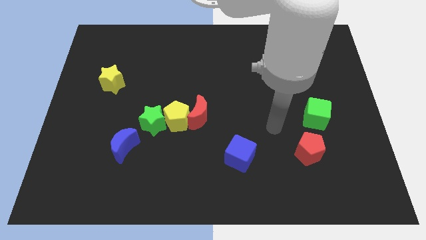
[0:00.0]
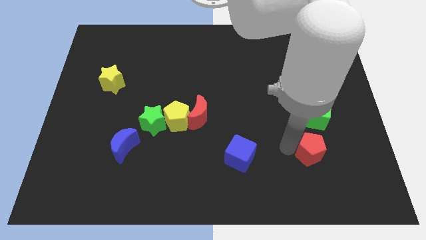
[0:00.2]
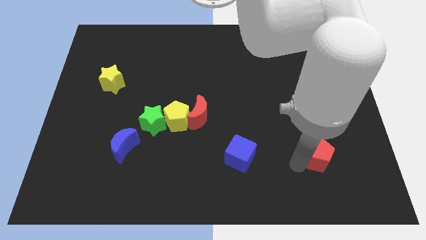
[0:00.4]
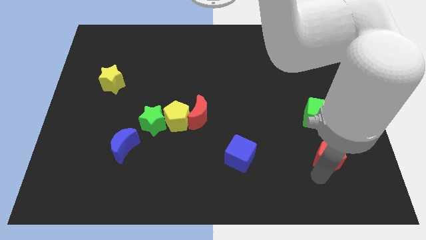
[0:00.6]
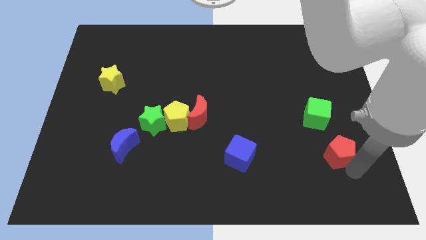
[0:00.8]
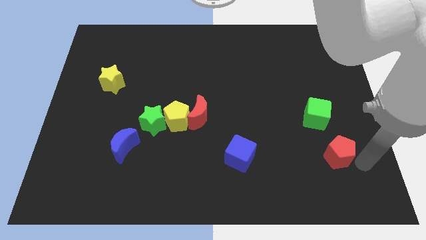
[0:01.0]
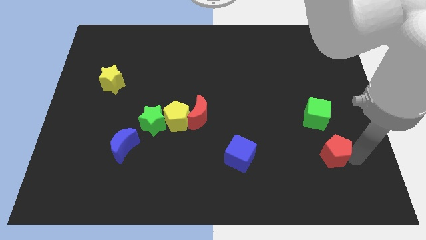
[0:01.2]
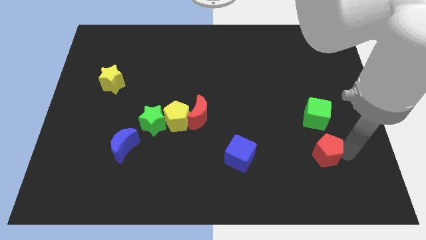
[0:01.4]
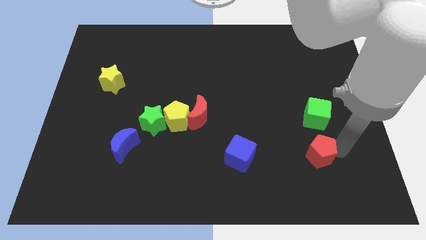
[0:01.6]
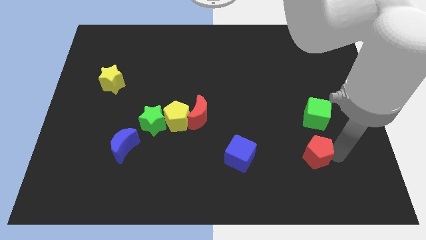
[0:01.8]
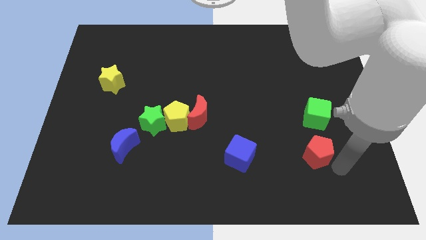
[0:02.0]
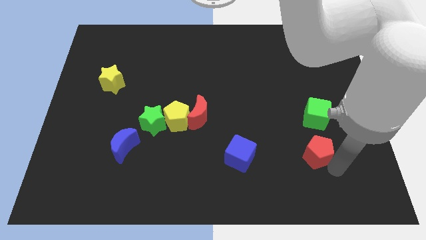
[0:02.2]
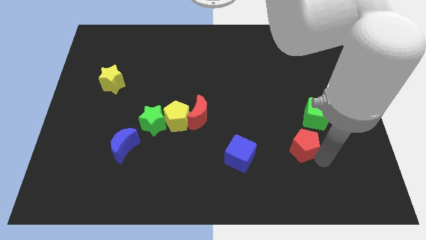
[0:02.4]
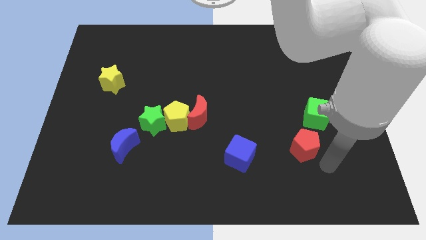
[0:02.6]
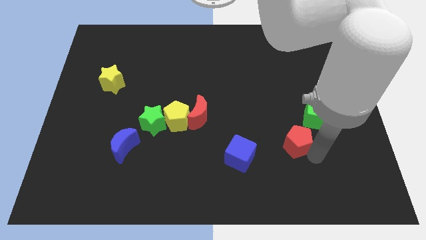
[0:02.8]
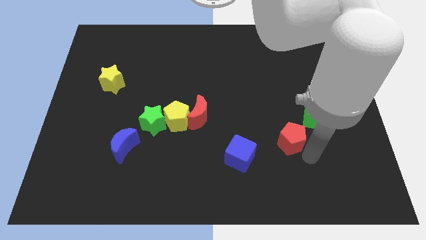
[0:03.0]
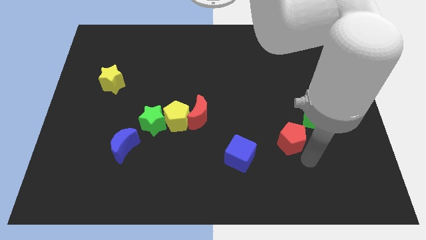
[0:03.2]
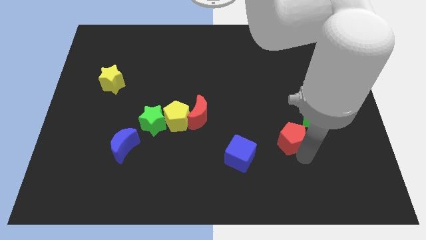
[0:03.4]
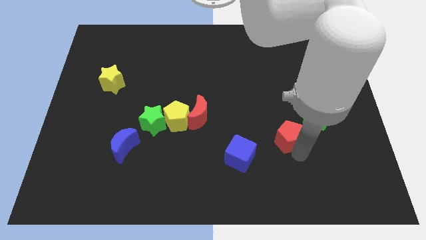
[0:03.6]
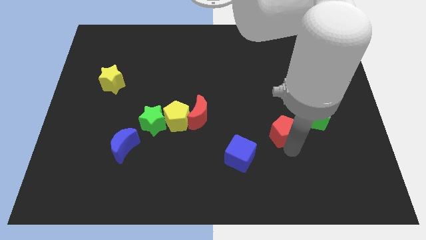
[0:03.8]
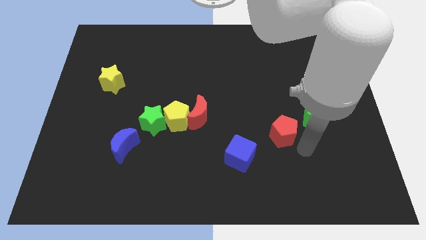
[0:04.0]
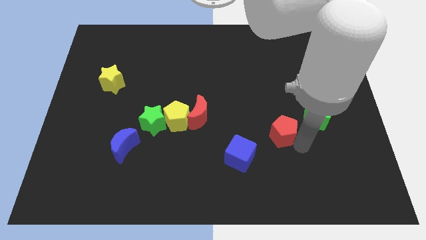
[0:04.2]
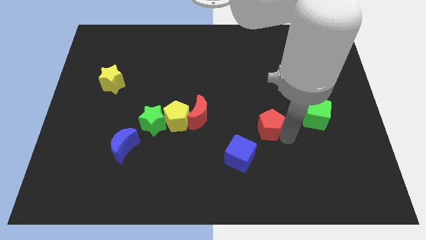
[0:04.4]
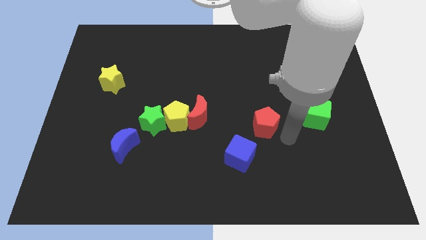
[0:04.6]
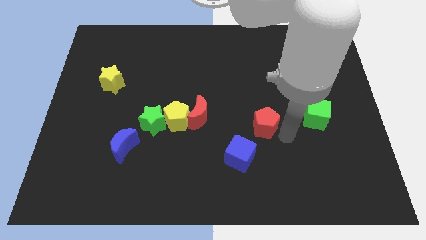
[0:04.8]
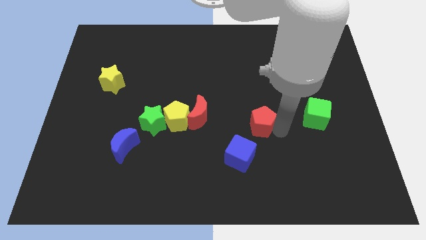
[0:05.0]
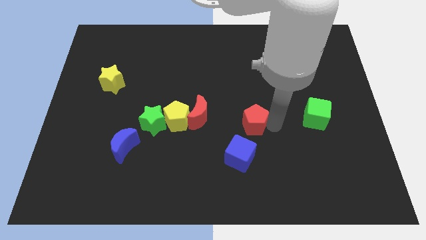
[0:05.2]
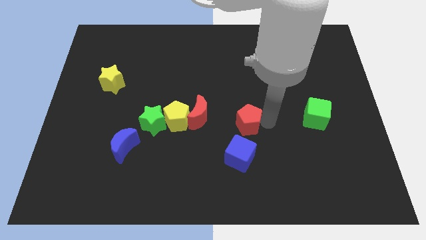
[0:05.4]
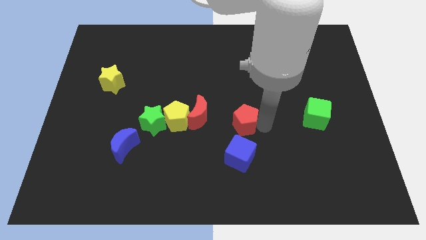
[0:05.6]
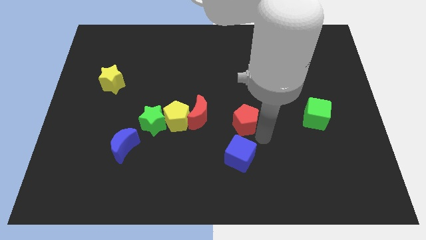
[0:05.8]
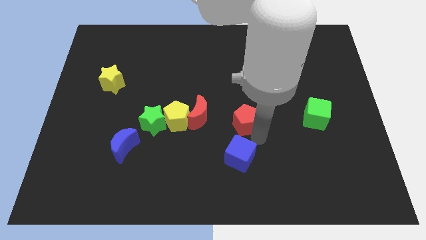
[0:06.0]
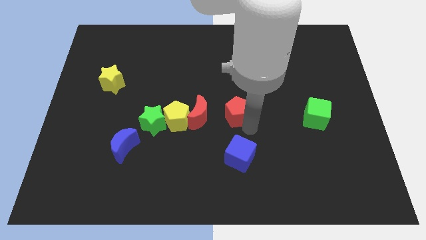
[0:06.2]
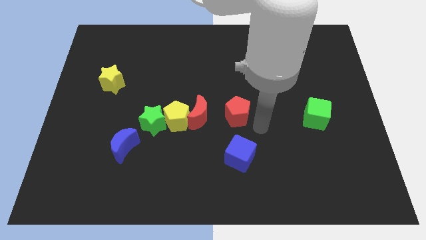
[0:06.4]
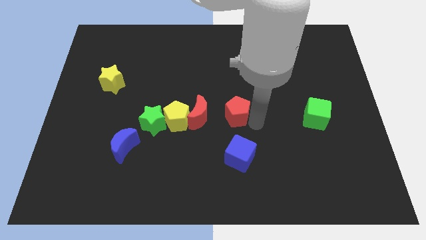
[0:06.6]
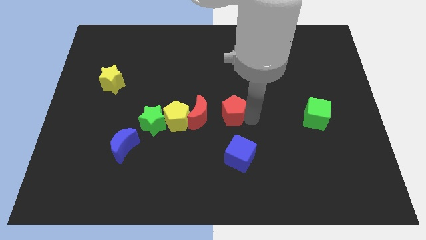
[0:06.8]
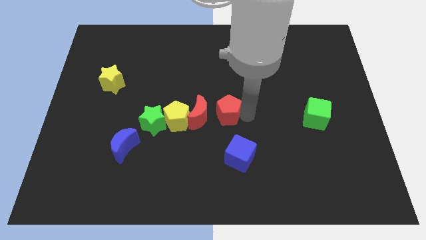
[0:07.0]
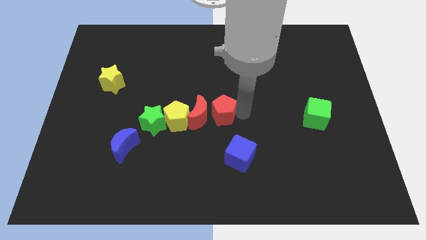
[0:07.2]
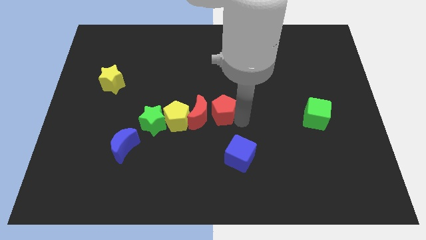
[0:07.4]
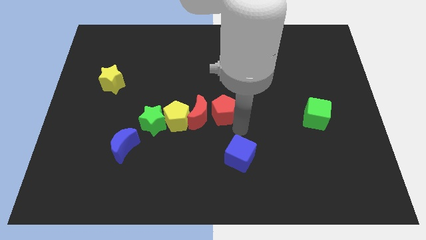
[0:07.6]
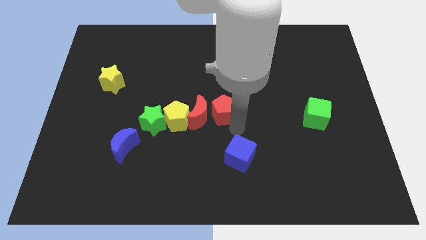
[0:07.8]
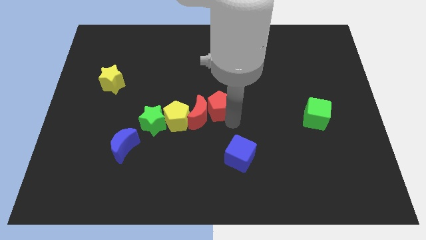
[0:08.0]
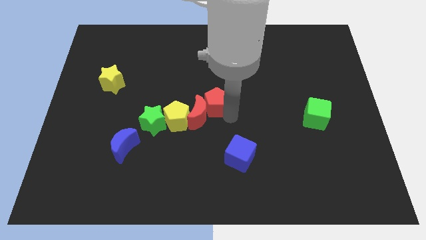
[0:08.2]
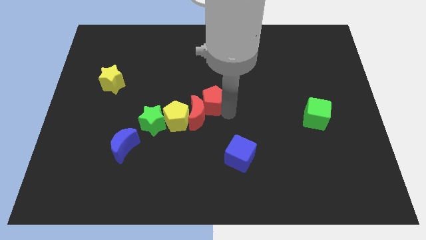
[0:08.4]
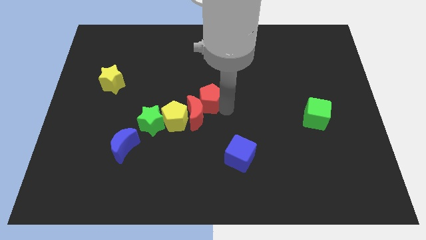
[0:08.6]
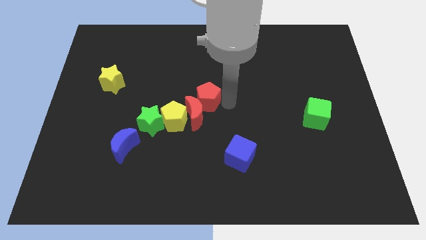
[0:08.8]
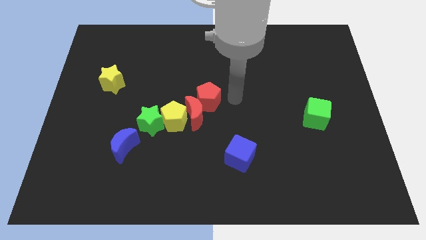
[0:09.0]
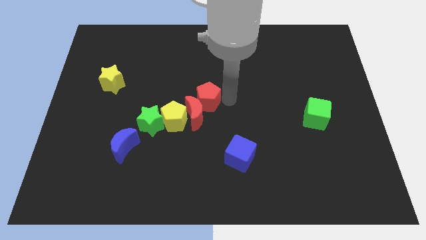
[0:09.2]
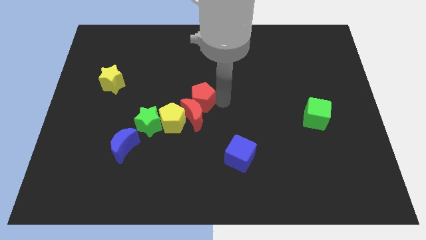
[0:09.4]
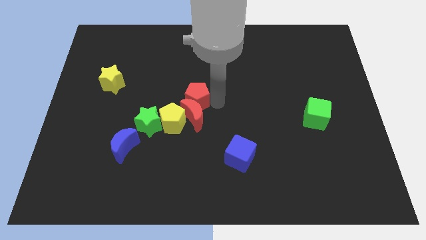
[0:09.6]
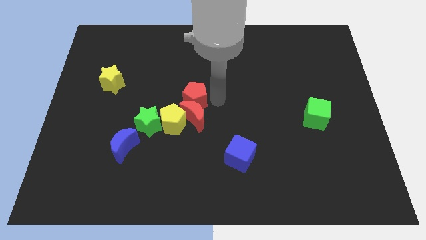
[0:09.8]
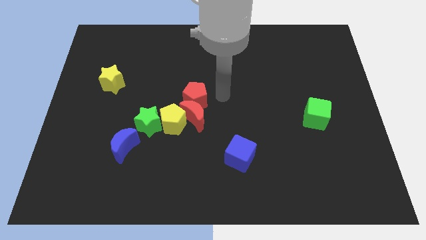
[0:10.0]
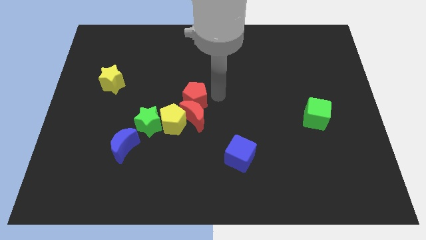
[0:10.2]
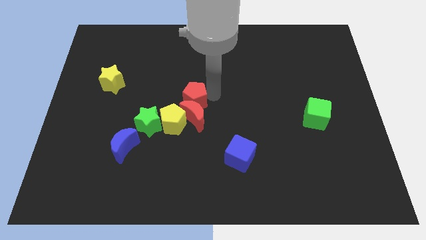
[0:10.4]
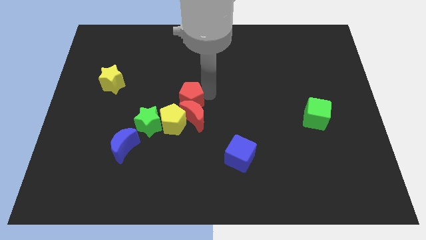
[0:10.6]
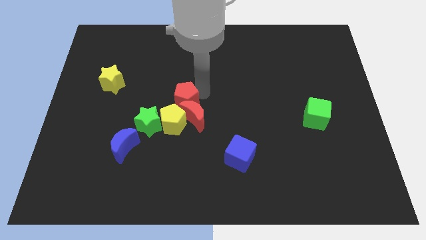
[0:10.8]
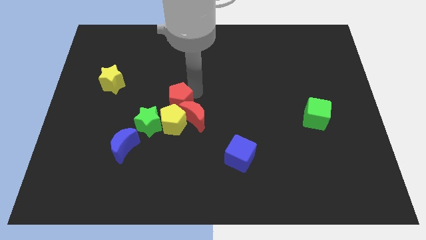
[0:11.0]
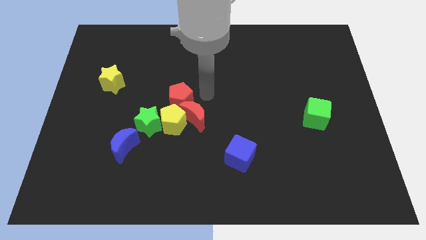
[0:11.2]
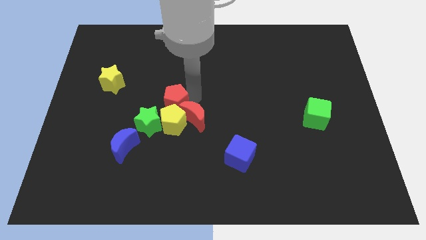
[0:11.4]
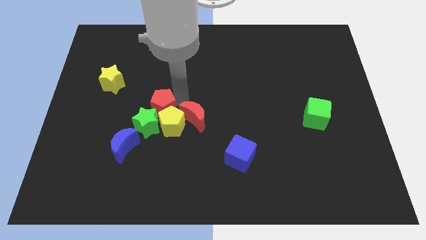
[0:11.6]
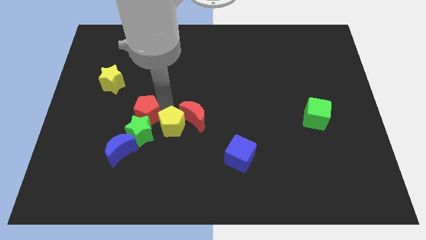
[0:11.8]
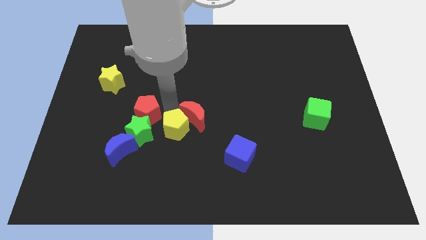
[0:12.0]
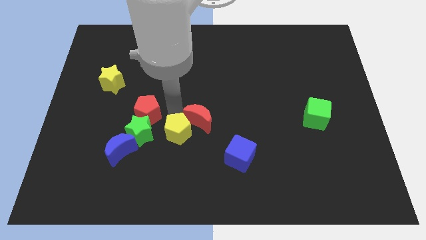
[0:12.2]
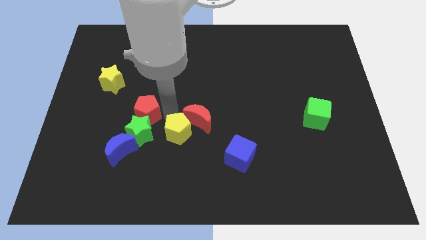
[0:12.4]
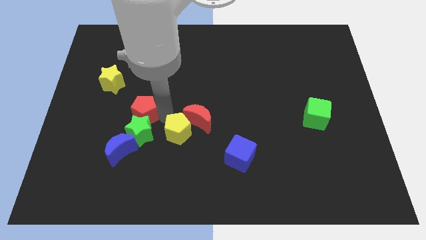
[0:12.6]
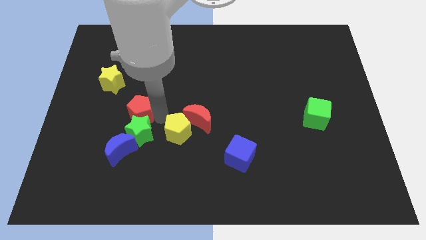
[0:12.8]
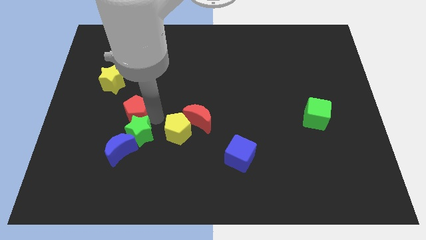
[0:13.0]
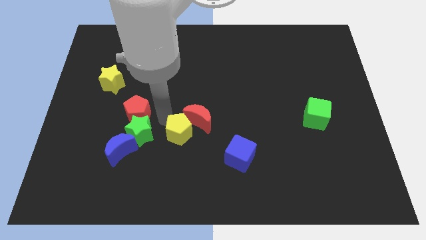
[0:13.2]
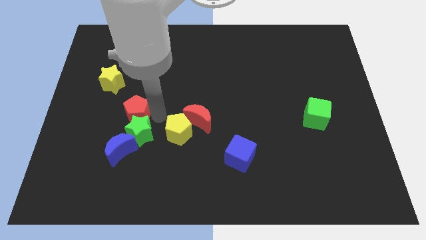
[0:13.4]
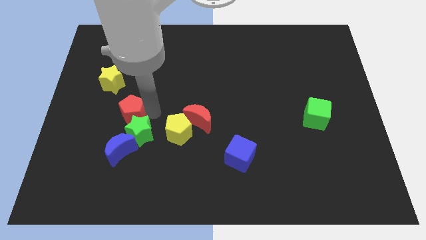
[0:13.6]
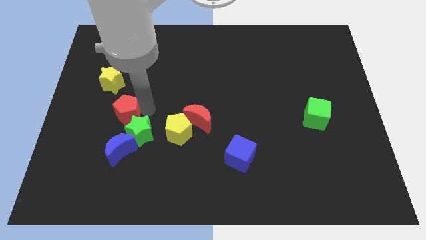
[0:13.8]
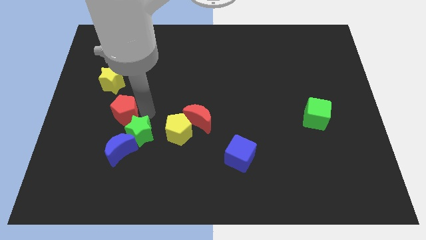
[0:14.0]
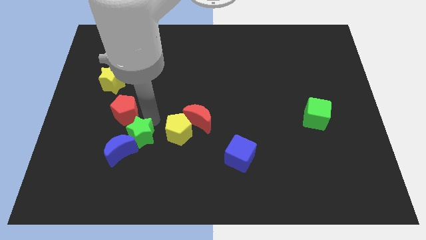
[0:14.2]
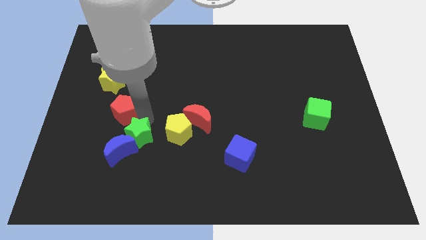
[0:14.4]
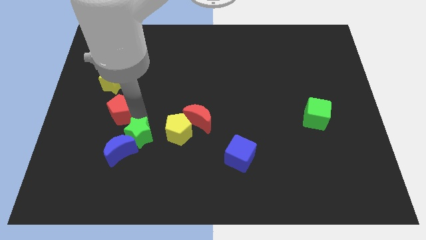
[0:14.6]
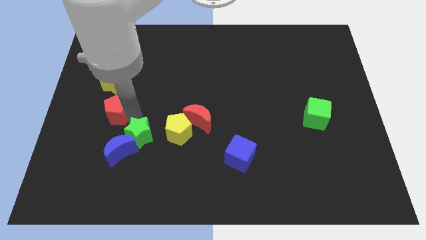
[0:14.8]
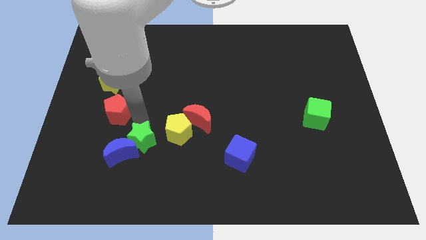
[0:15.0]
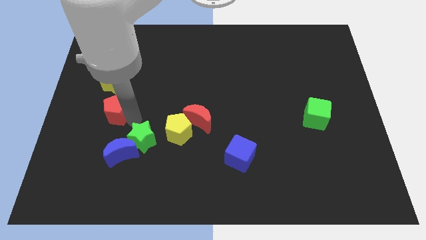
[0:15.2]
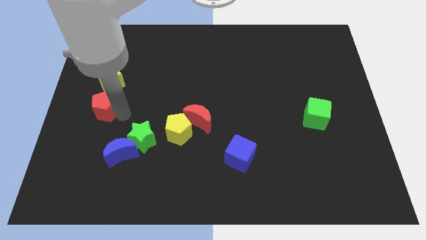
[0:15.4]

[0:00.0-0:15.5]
put the red pentagon to the center left
